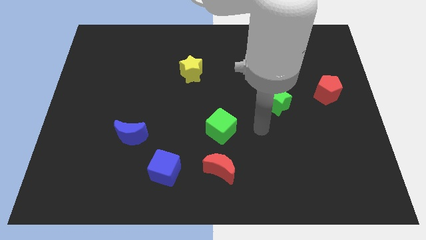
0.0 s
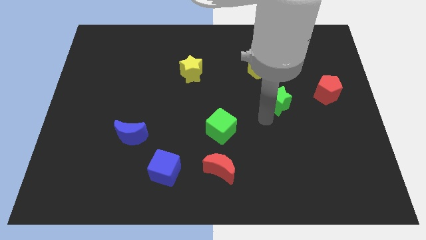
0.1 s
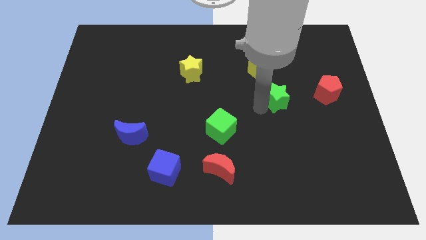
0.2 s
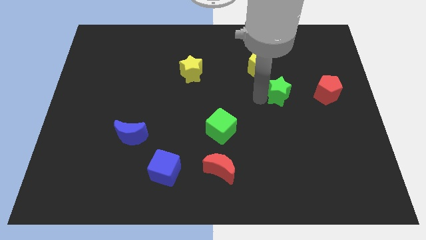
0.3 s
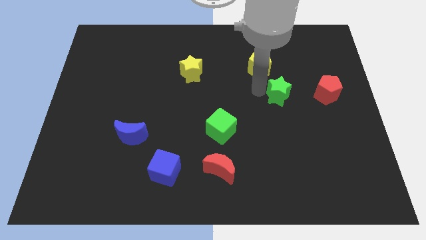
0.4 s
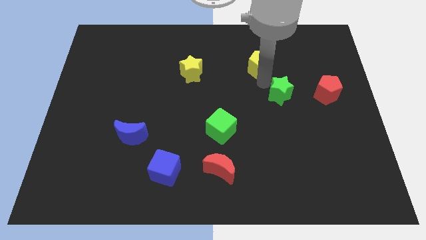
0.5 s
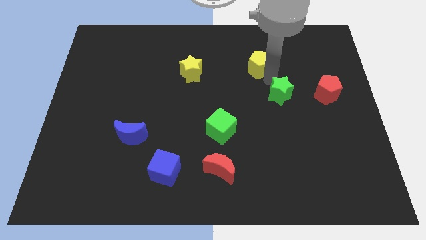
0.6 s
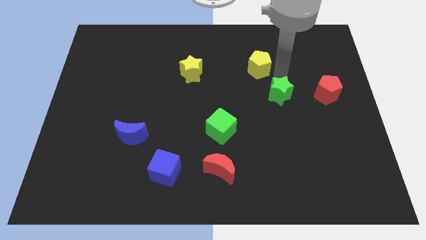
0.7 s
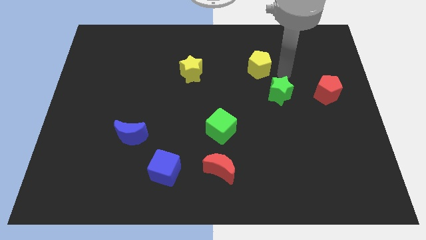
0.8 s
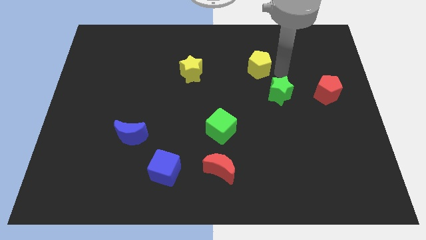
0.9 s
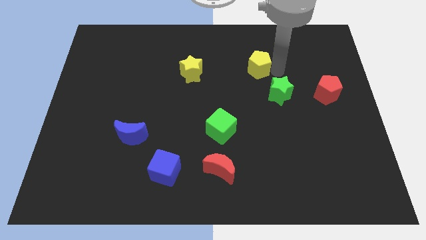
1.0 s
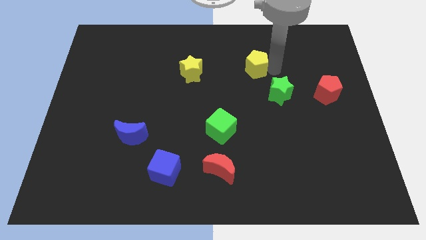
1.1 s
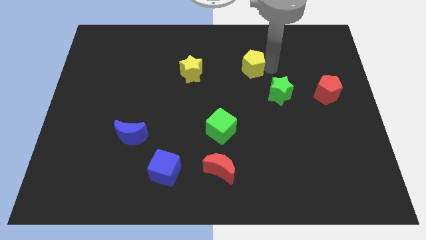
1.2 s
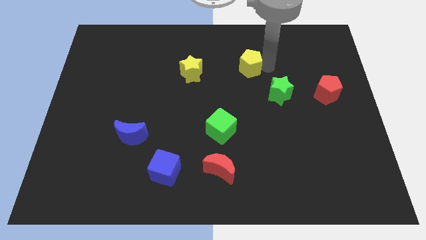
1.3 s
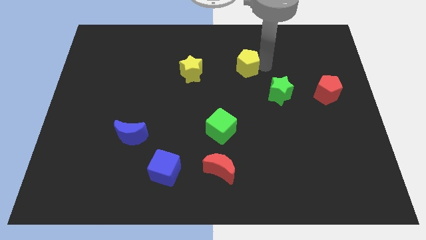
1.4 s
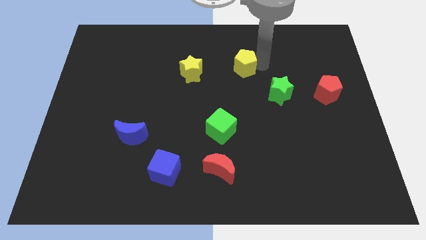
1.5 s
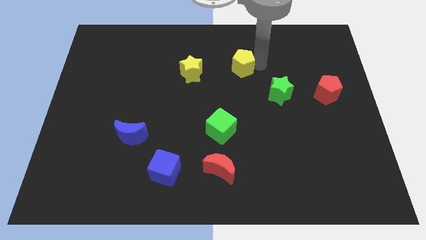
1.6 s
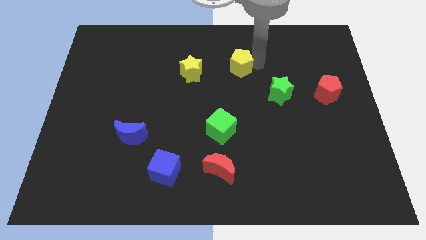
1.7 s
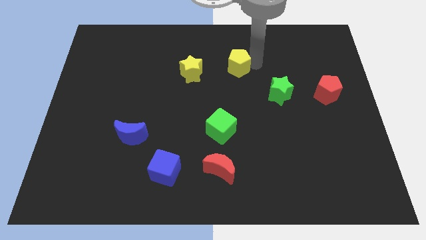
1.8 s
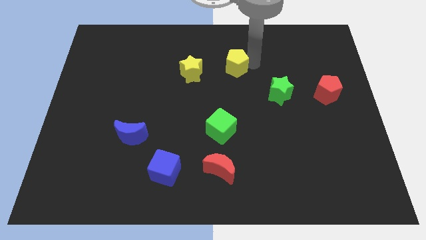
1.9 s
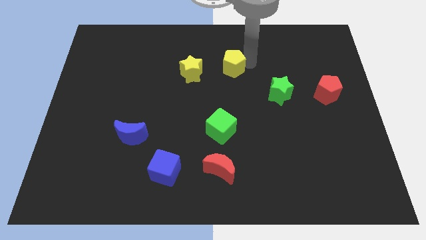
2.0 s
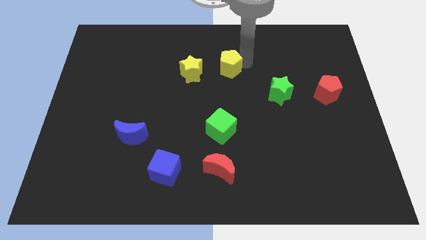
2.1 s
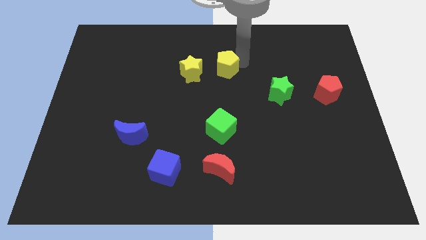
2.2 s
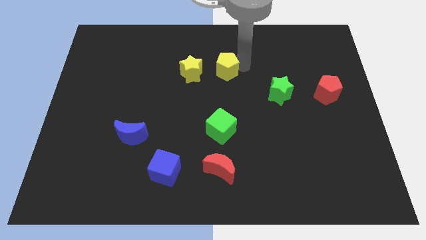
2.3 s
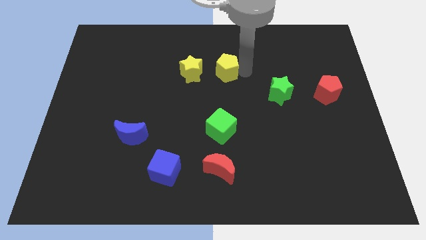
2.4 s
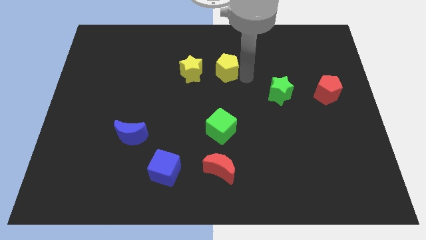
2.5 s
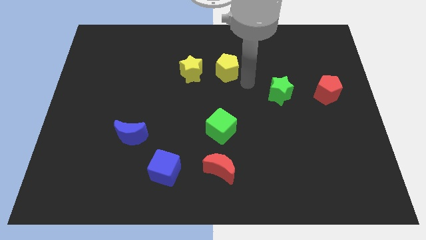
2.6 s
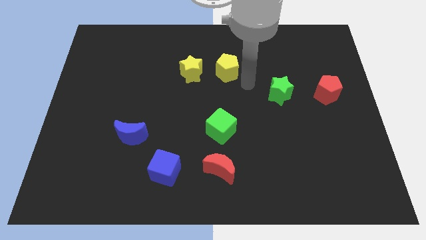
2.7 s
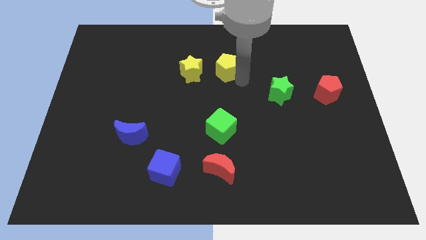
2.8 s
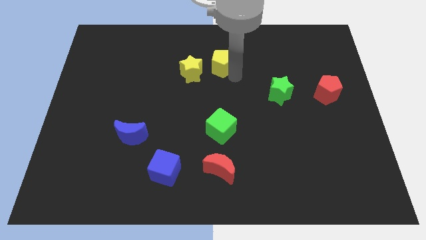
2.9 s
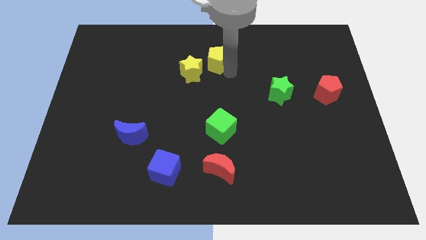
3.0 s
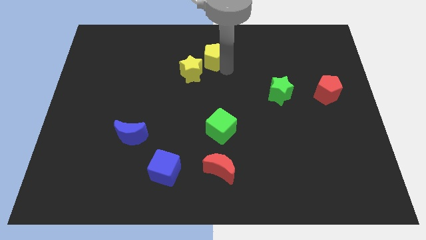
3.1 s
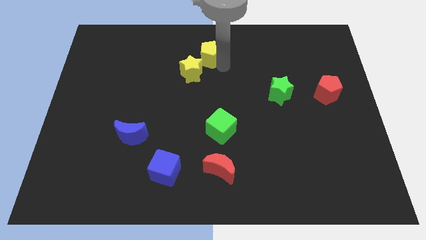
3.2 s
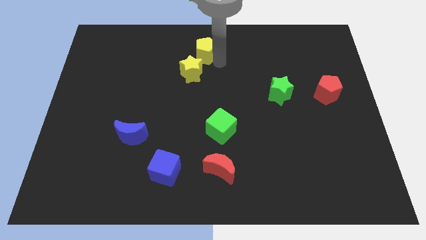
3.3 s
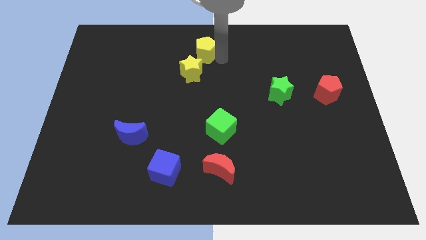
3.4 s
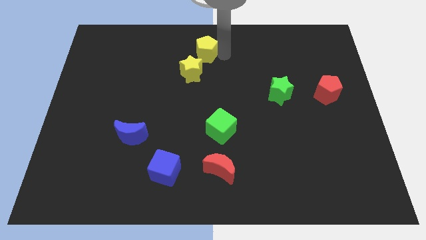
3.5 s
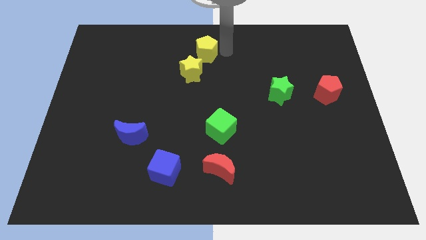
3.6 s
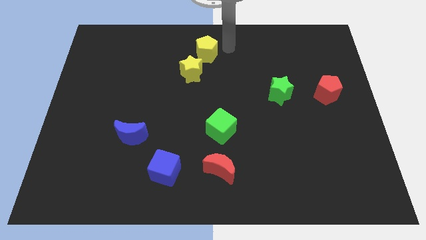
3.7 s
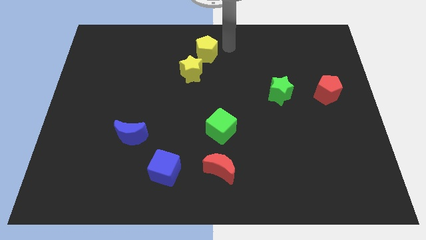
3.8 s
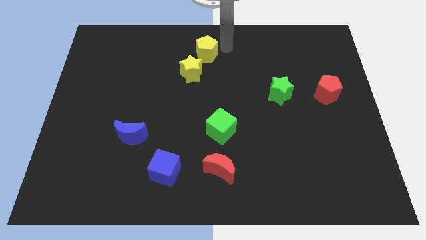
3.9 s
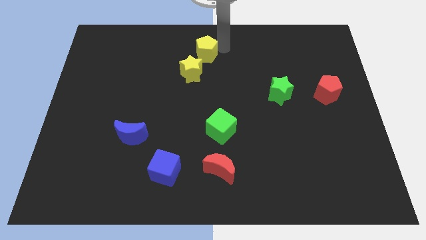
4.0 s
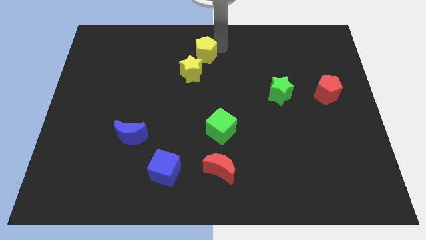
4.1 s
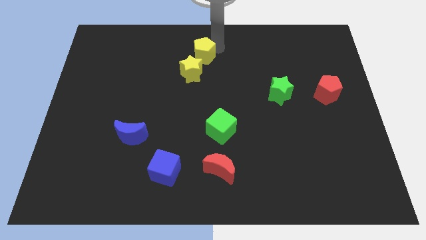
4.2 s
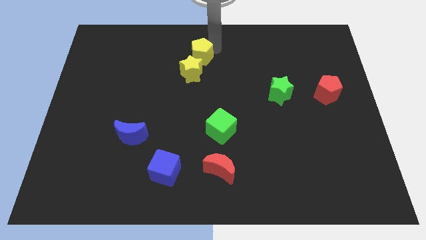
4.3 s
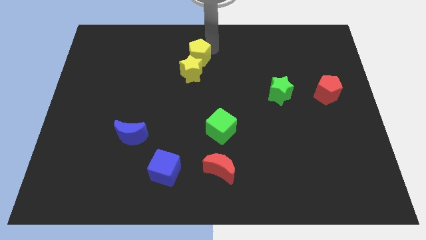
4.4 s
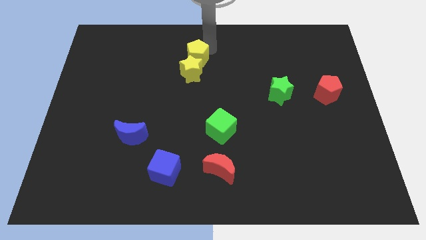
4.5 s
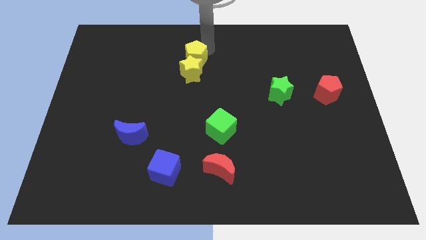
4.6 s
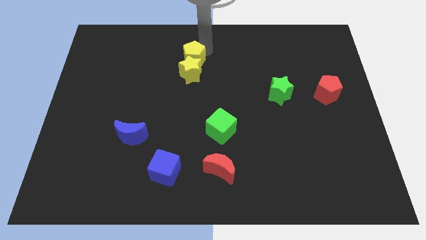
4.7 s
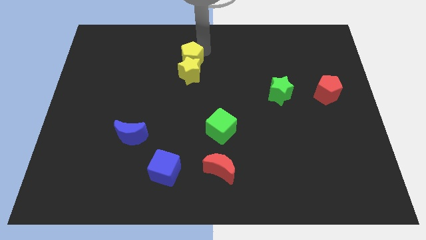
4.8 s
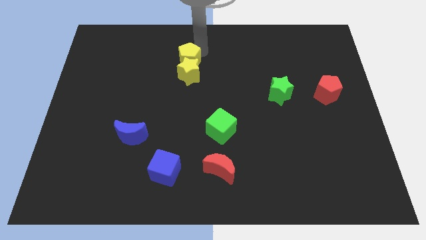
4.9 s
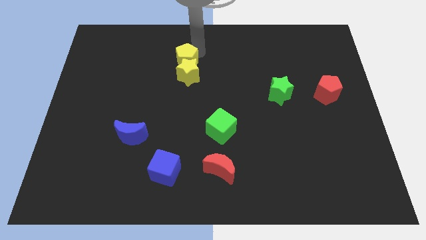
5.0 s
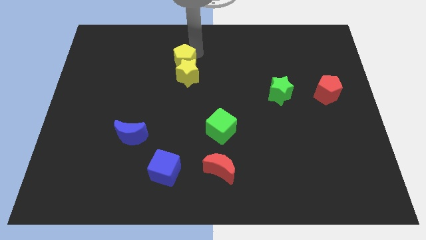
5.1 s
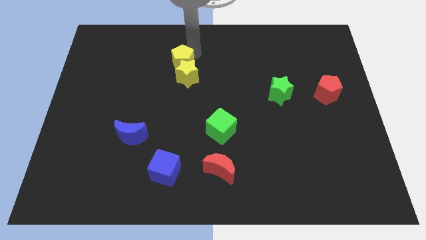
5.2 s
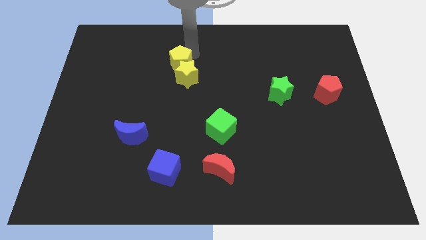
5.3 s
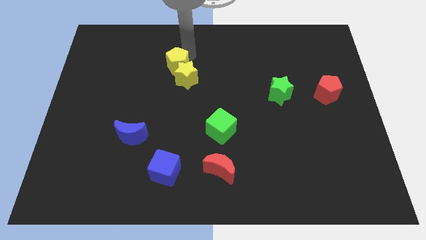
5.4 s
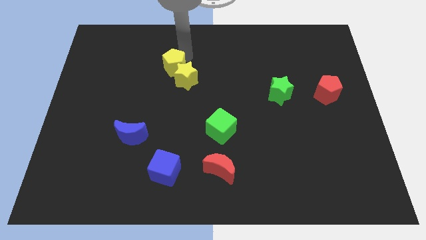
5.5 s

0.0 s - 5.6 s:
put the yellow pentagon left of the yellow star
